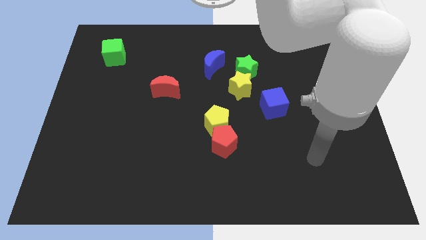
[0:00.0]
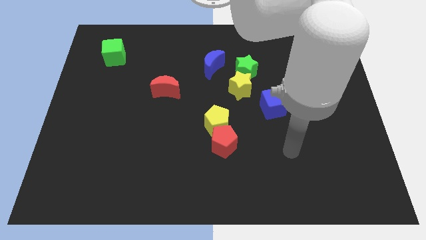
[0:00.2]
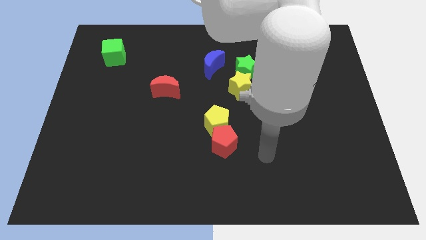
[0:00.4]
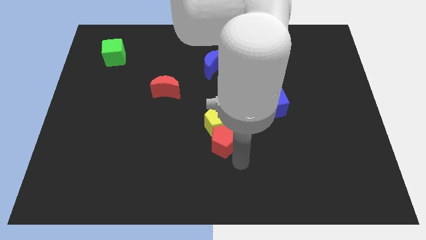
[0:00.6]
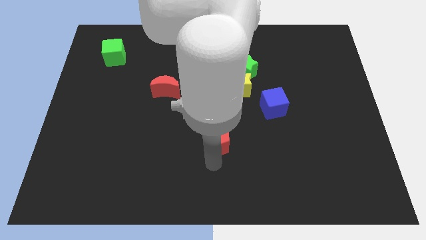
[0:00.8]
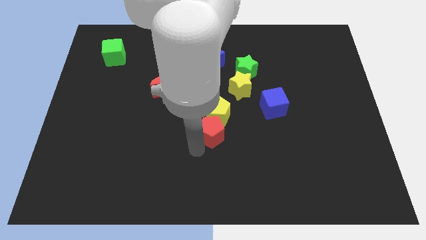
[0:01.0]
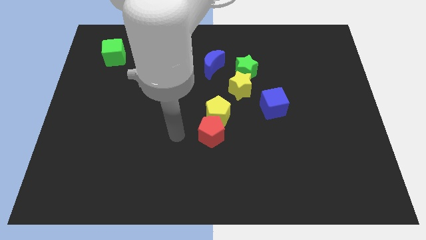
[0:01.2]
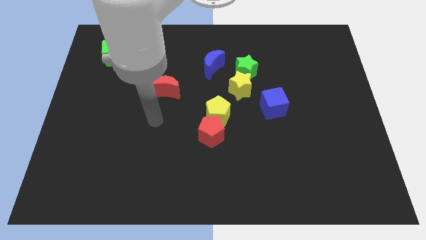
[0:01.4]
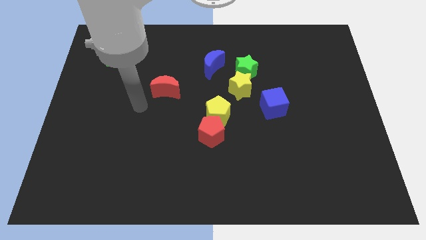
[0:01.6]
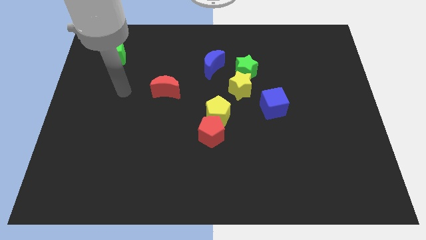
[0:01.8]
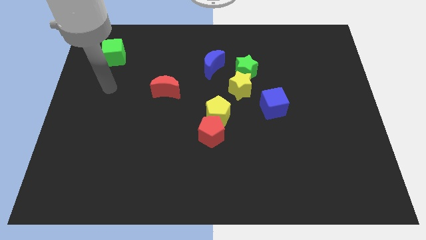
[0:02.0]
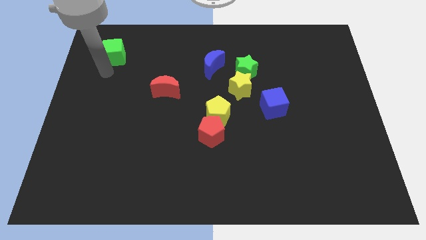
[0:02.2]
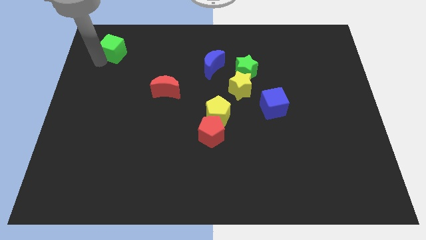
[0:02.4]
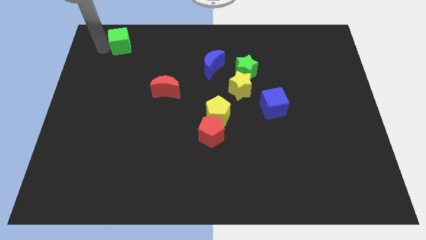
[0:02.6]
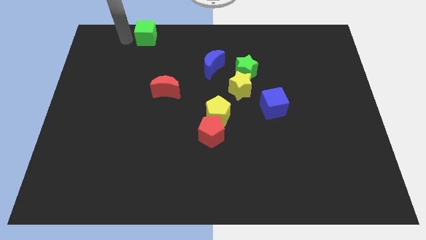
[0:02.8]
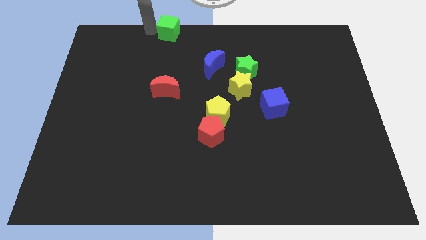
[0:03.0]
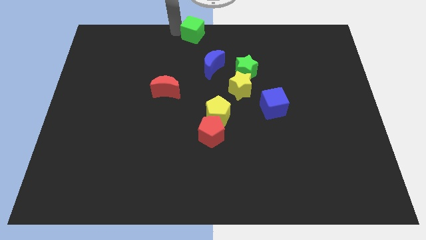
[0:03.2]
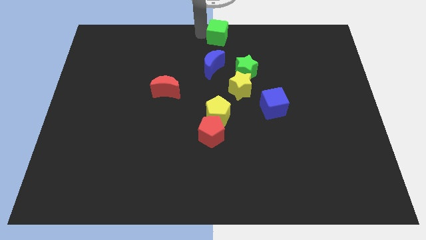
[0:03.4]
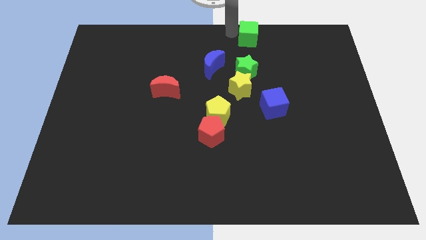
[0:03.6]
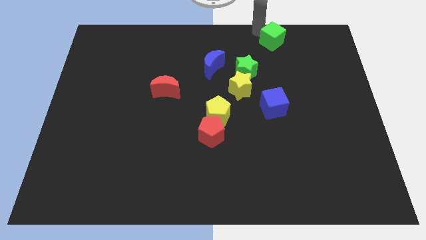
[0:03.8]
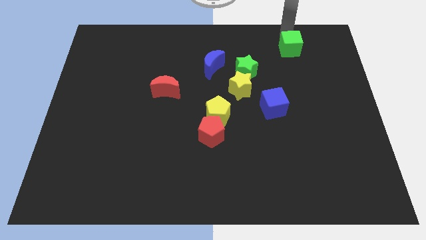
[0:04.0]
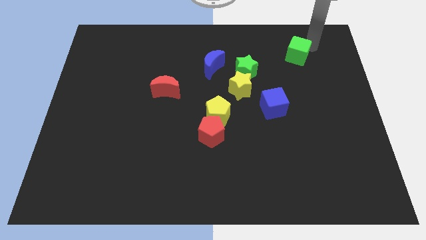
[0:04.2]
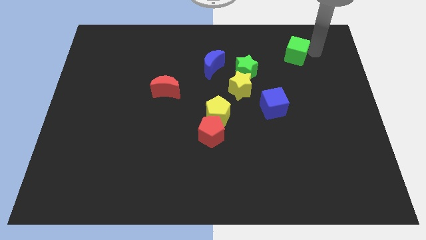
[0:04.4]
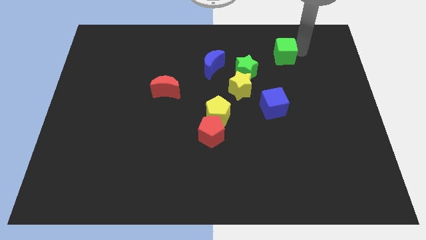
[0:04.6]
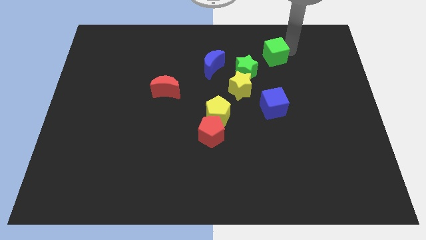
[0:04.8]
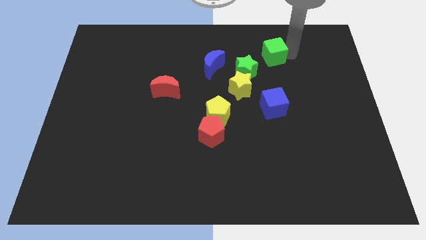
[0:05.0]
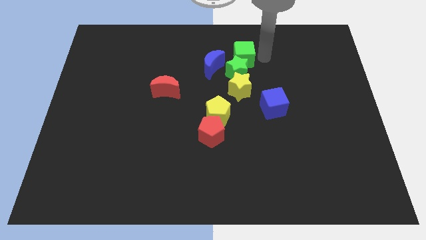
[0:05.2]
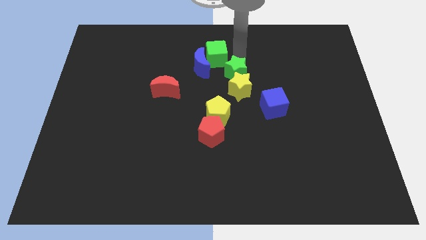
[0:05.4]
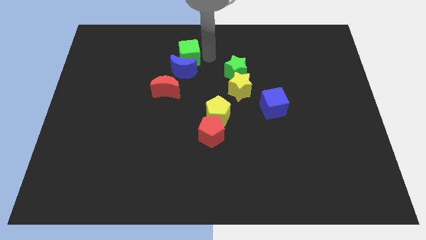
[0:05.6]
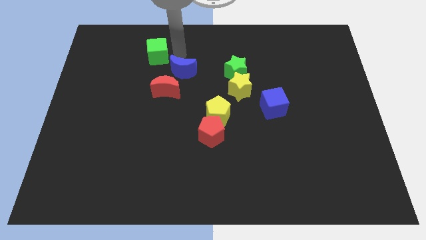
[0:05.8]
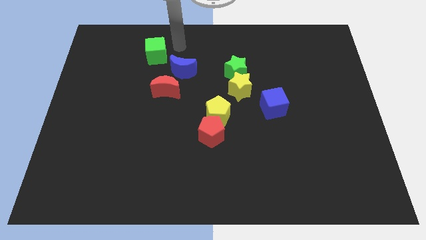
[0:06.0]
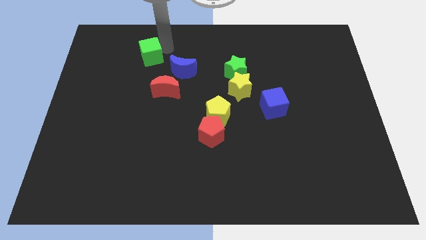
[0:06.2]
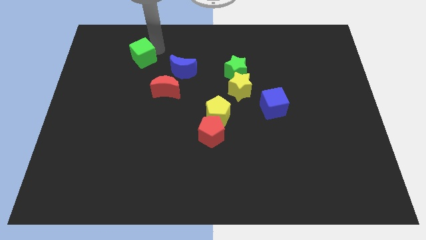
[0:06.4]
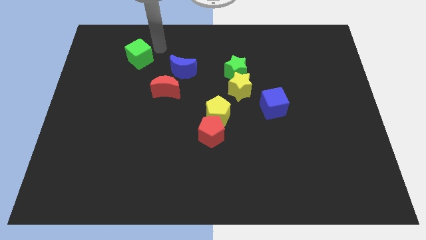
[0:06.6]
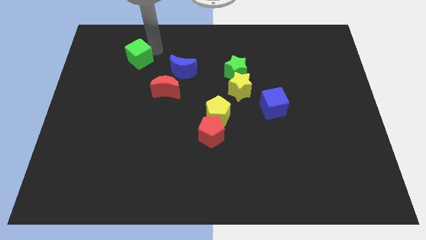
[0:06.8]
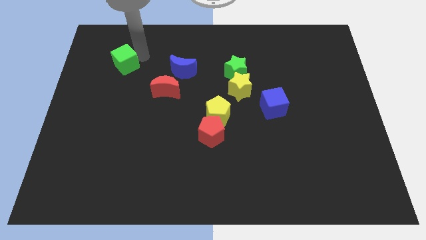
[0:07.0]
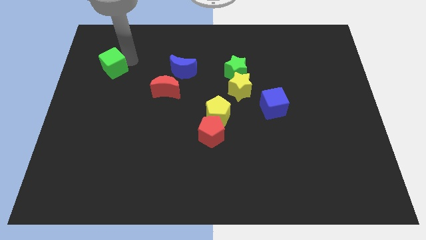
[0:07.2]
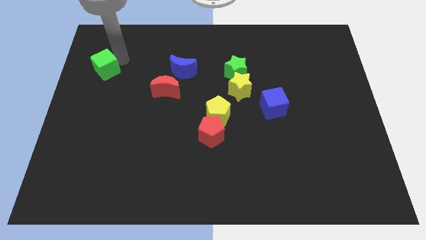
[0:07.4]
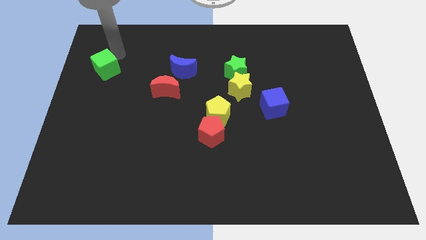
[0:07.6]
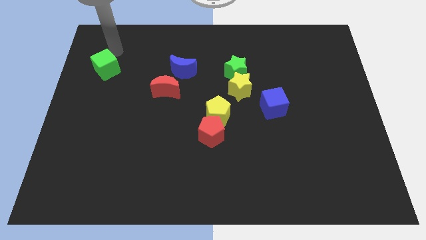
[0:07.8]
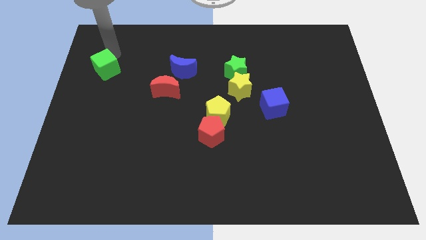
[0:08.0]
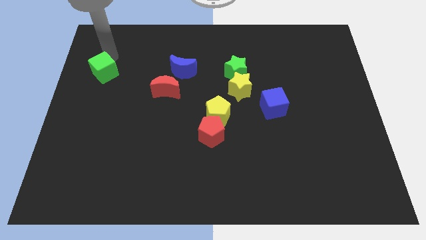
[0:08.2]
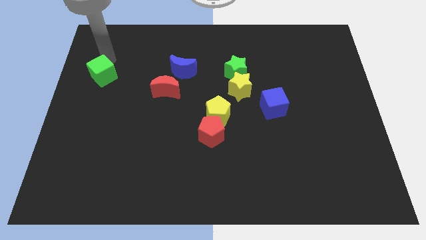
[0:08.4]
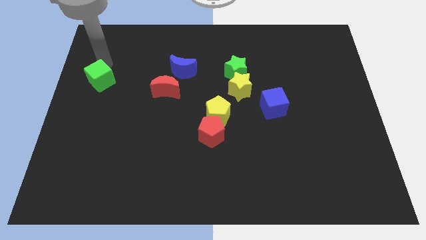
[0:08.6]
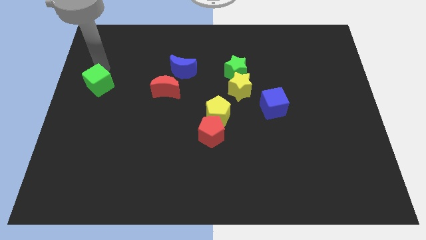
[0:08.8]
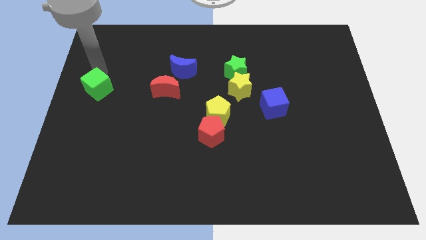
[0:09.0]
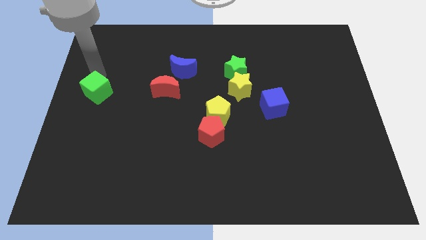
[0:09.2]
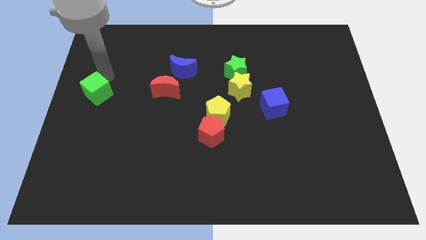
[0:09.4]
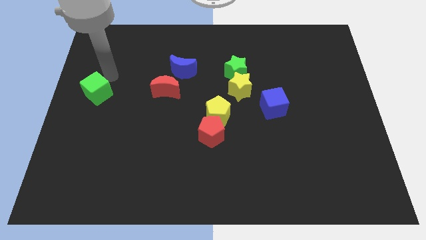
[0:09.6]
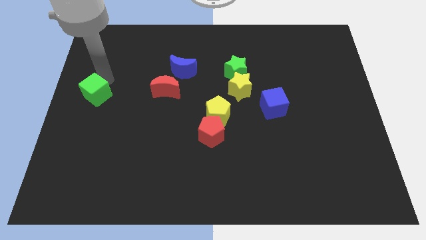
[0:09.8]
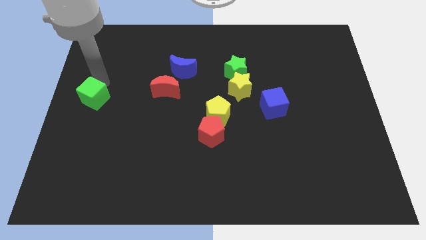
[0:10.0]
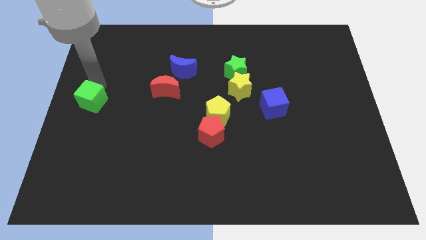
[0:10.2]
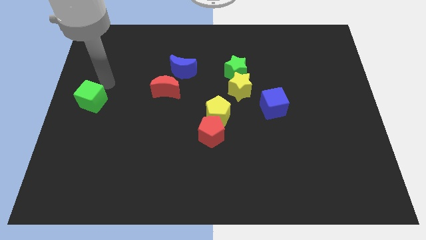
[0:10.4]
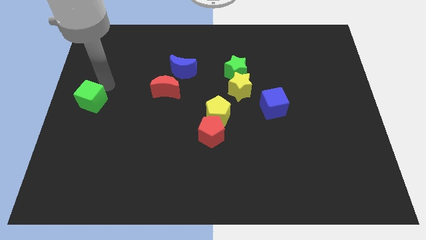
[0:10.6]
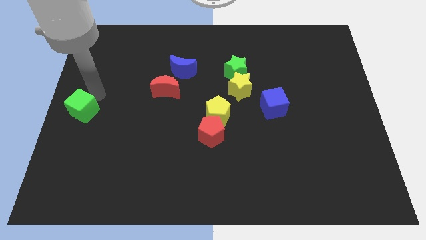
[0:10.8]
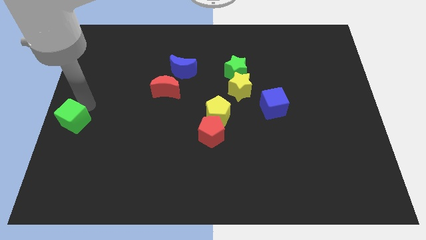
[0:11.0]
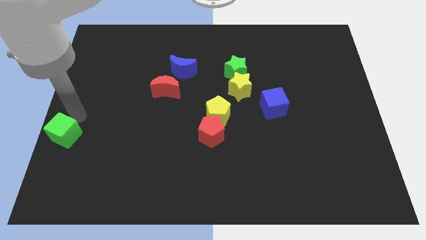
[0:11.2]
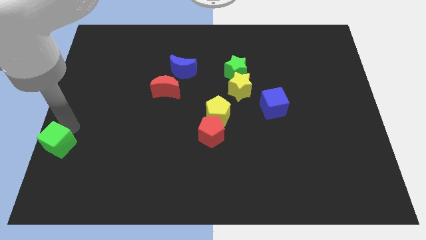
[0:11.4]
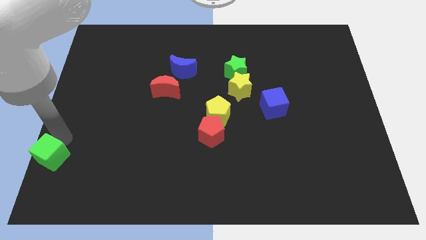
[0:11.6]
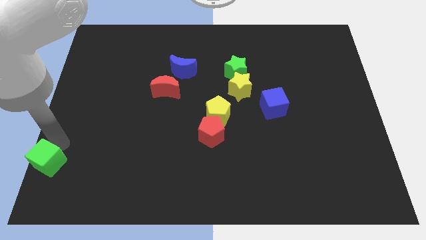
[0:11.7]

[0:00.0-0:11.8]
move the green cube to the bottom left

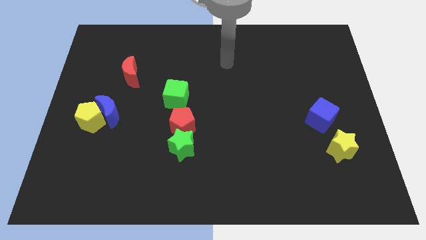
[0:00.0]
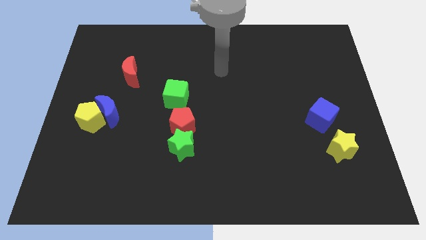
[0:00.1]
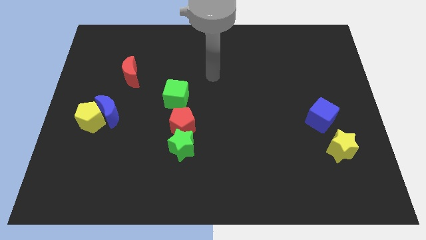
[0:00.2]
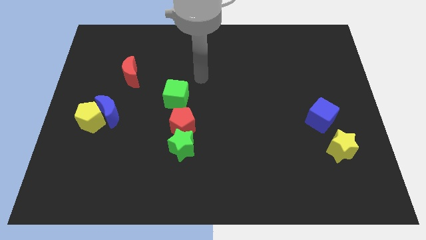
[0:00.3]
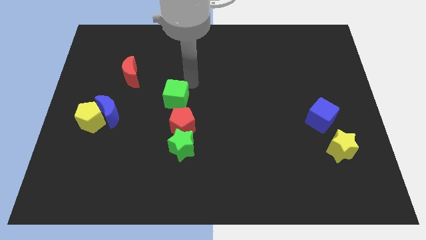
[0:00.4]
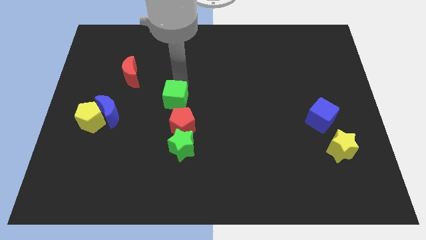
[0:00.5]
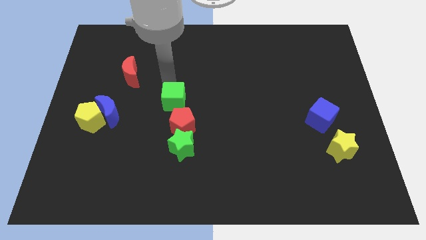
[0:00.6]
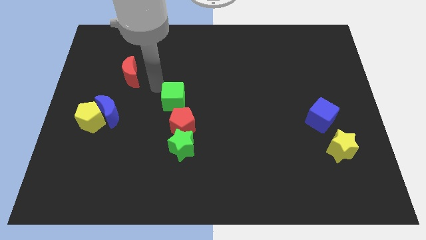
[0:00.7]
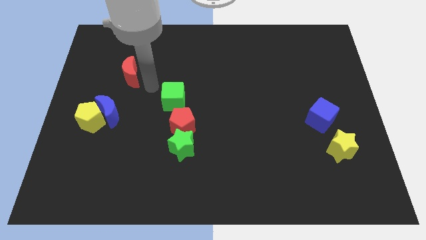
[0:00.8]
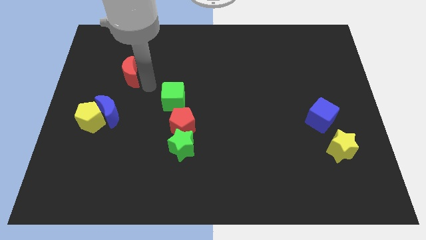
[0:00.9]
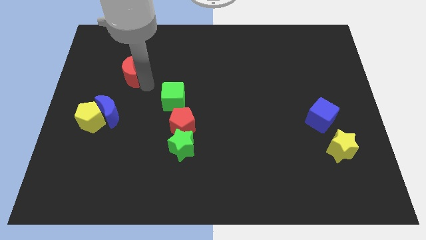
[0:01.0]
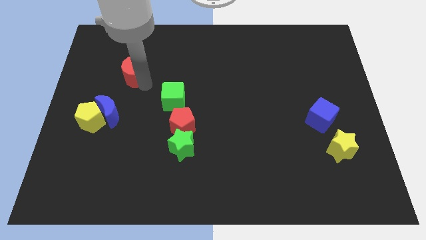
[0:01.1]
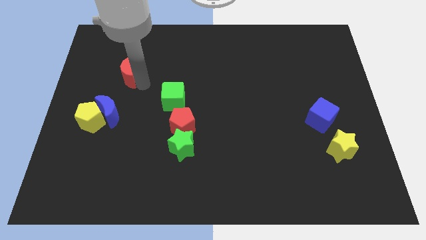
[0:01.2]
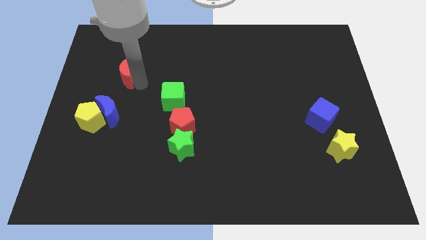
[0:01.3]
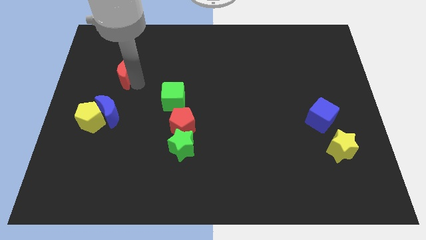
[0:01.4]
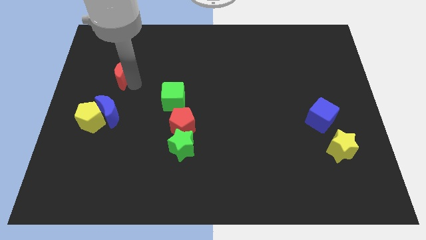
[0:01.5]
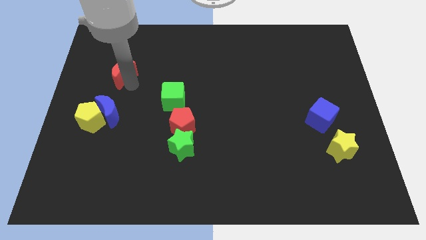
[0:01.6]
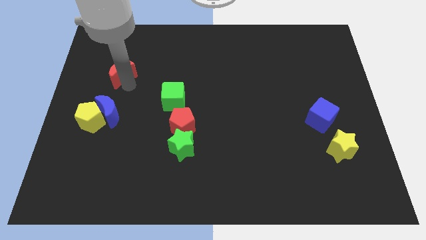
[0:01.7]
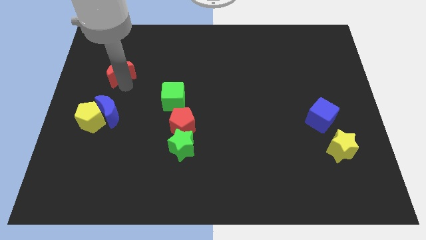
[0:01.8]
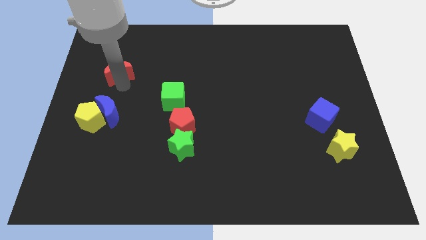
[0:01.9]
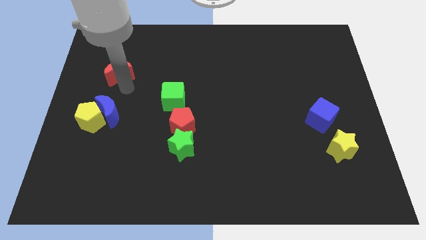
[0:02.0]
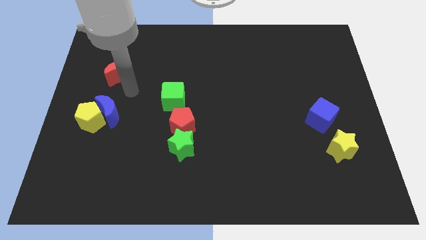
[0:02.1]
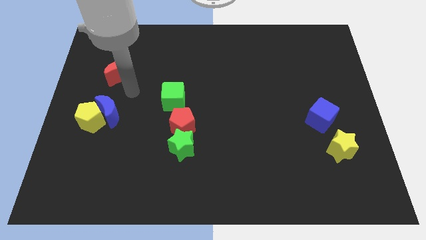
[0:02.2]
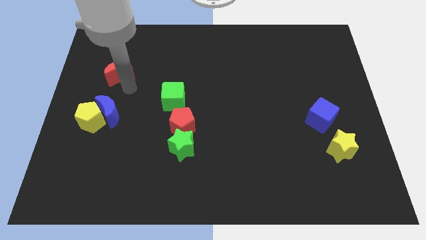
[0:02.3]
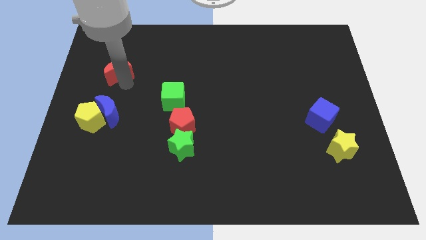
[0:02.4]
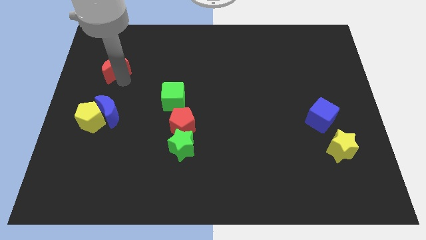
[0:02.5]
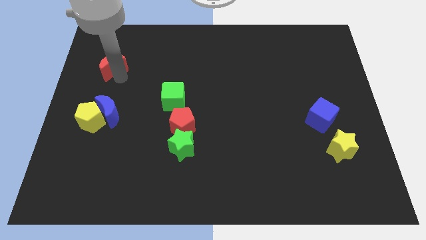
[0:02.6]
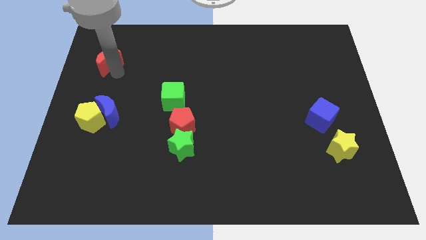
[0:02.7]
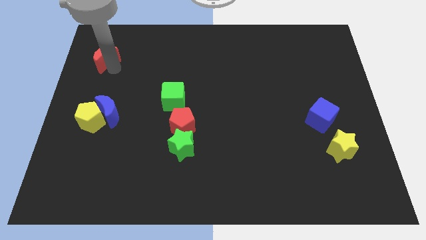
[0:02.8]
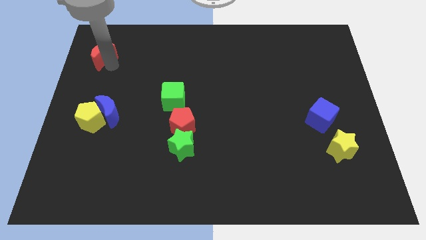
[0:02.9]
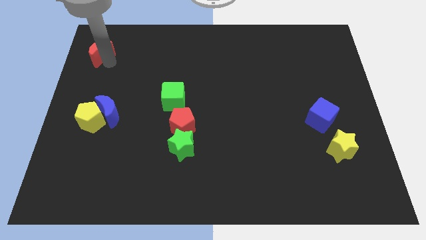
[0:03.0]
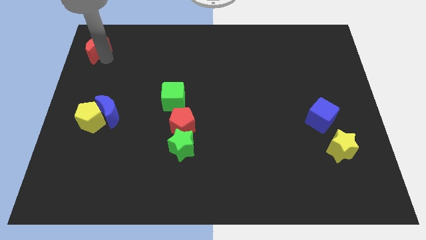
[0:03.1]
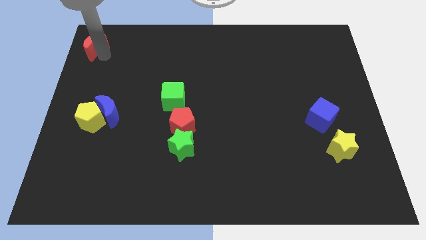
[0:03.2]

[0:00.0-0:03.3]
move the red moon to the top left corner
